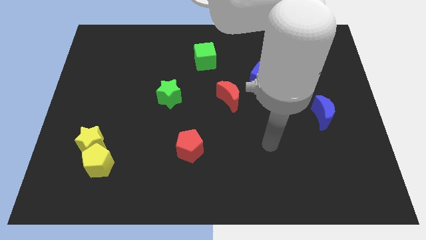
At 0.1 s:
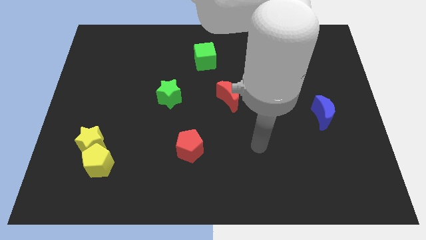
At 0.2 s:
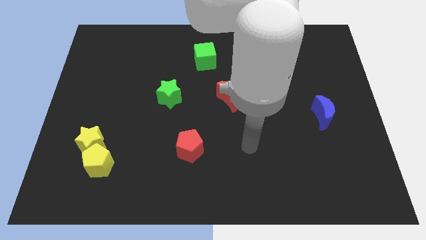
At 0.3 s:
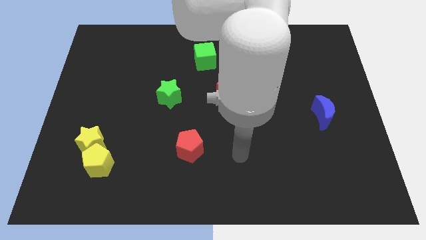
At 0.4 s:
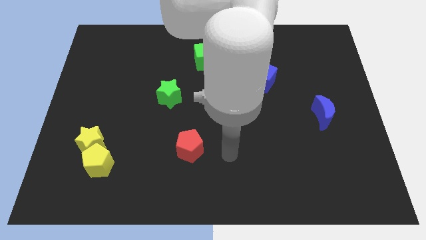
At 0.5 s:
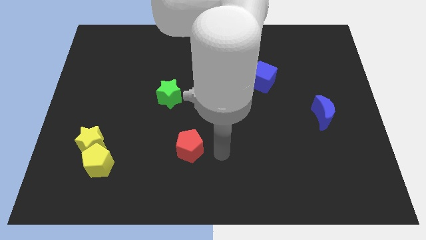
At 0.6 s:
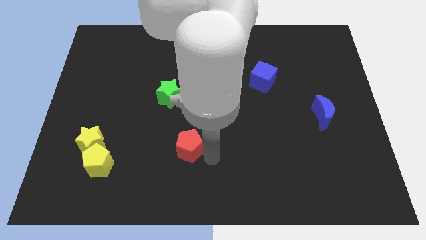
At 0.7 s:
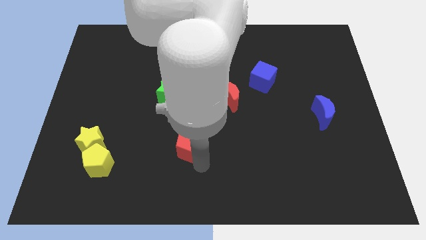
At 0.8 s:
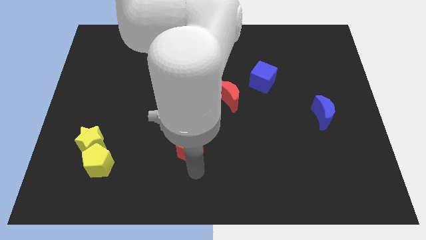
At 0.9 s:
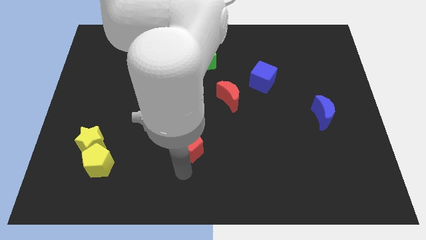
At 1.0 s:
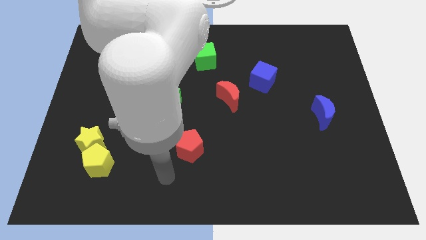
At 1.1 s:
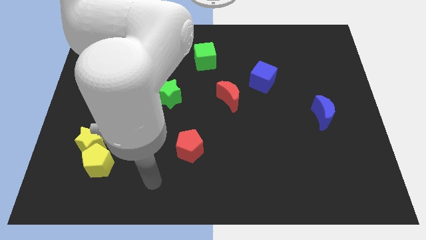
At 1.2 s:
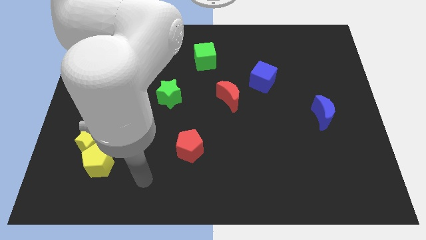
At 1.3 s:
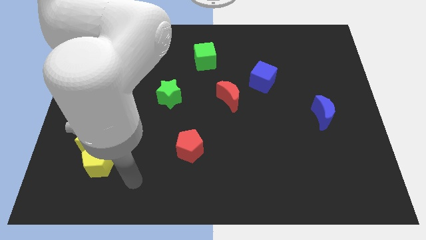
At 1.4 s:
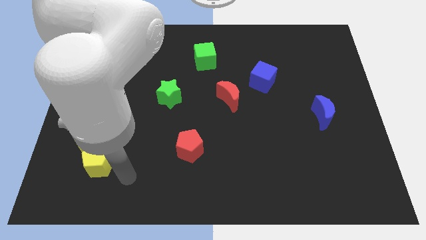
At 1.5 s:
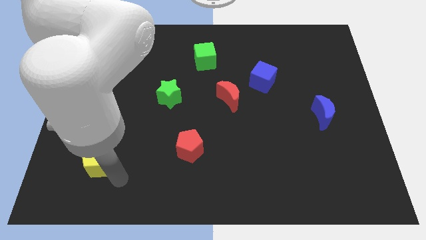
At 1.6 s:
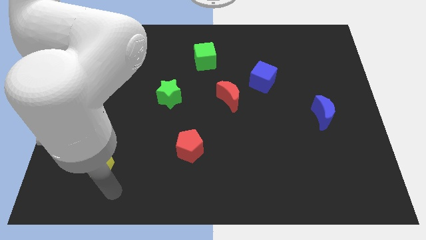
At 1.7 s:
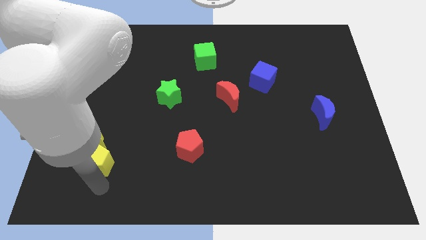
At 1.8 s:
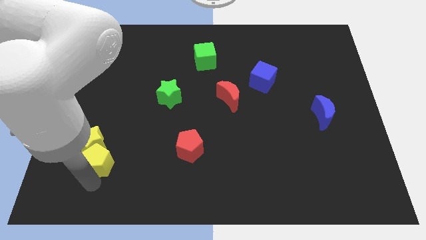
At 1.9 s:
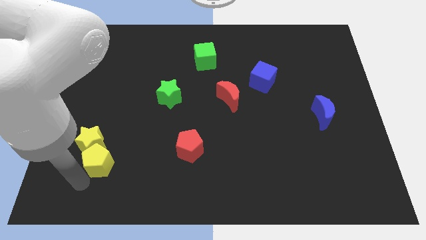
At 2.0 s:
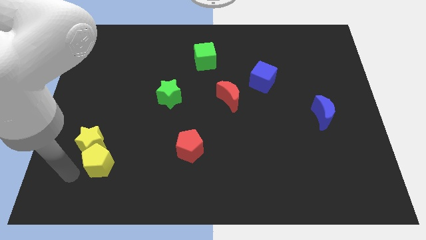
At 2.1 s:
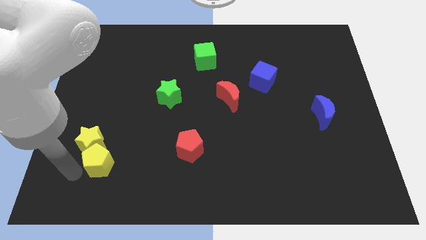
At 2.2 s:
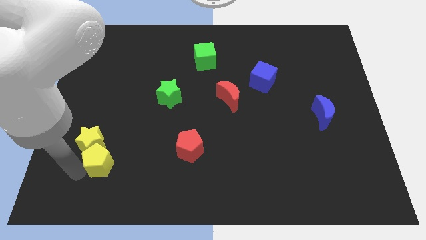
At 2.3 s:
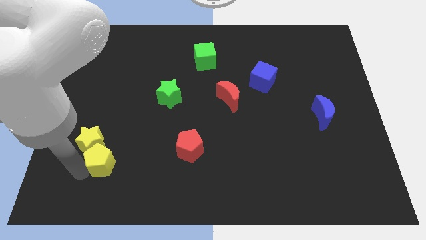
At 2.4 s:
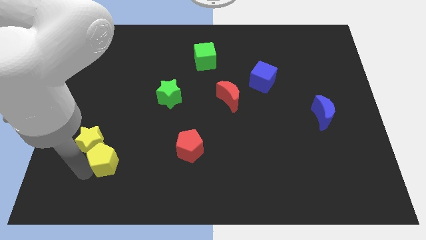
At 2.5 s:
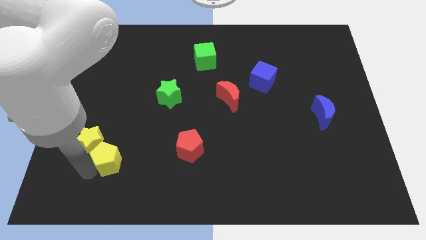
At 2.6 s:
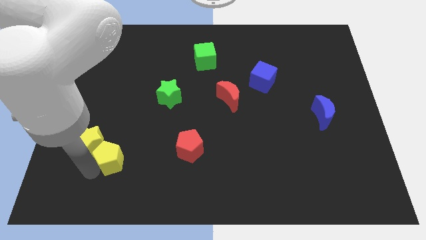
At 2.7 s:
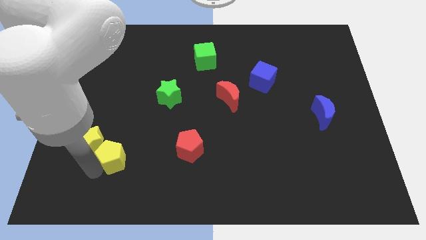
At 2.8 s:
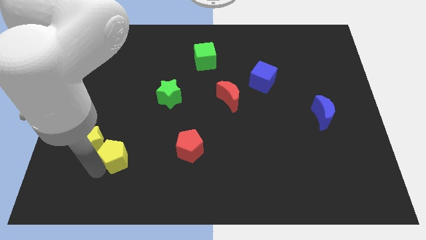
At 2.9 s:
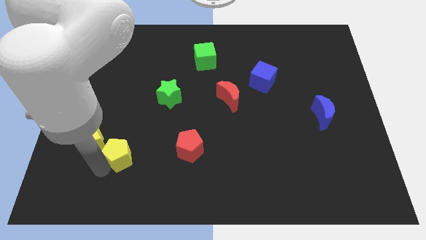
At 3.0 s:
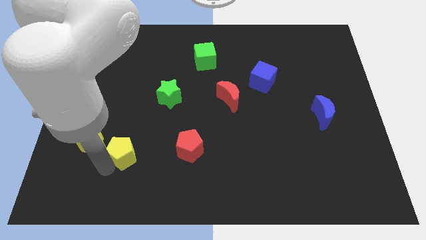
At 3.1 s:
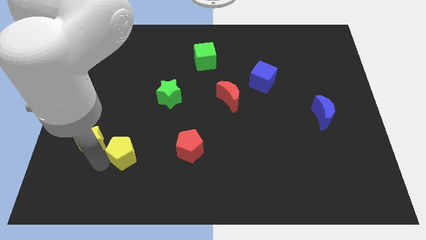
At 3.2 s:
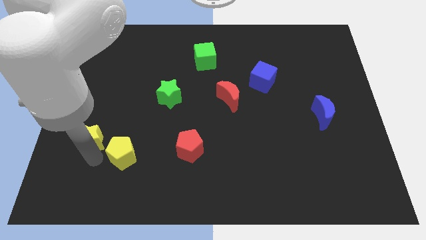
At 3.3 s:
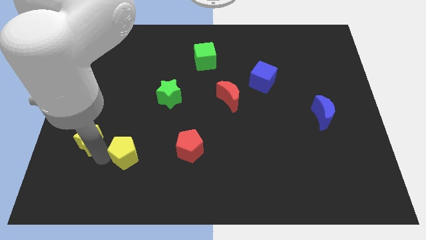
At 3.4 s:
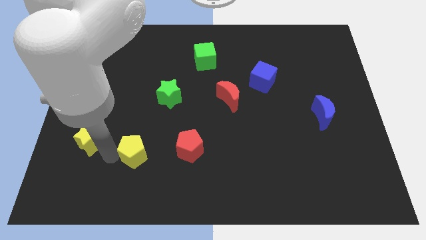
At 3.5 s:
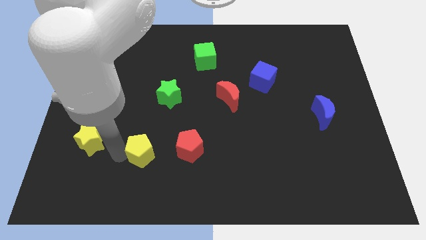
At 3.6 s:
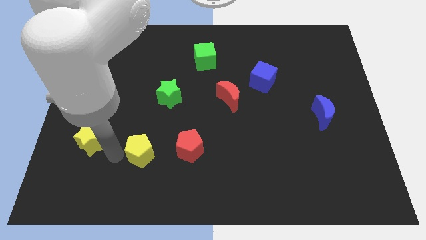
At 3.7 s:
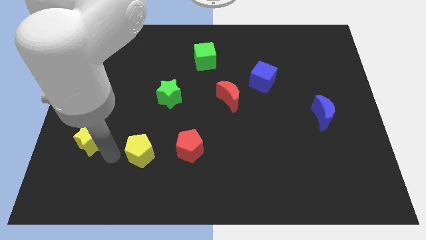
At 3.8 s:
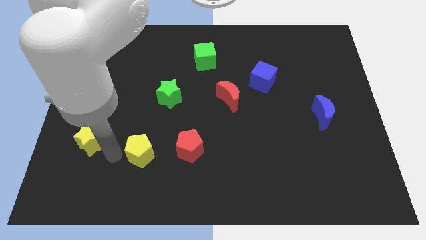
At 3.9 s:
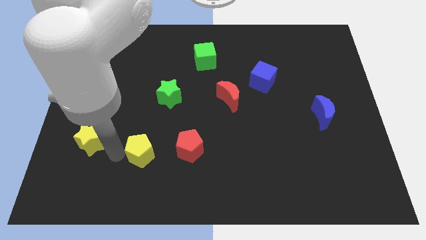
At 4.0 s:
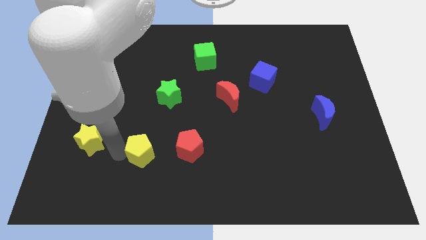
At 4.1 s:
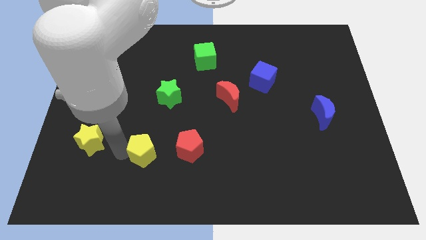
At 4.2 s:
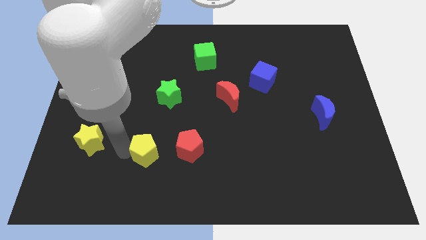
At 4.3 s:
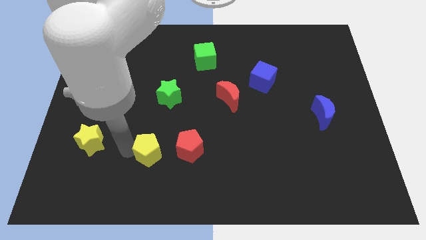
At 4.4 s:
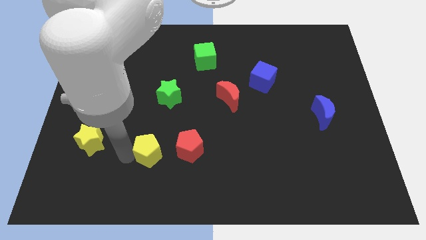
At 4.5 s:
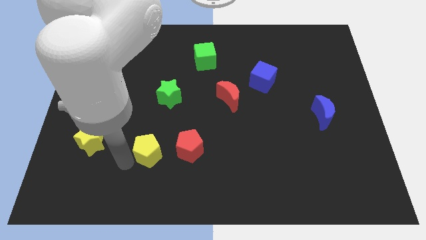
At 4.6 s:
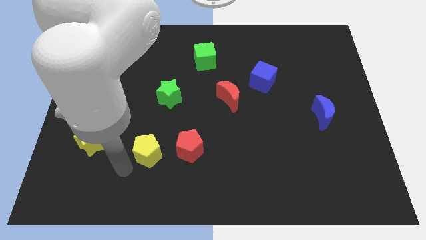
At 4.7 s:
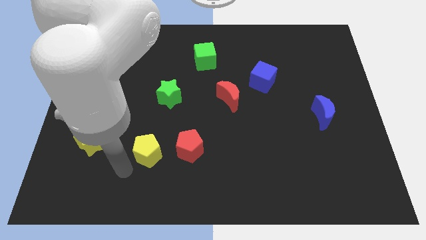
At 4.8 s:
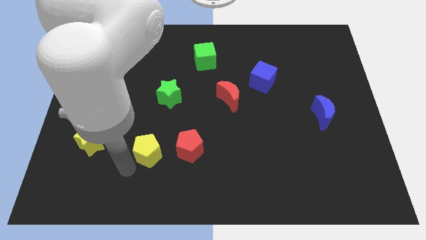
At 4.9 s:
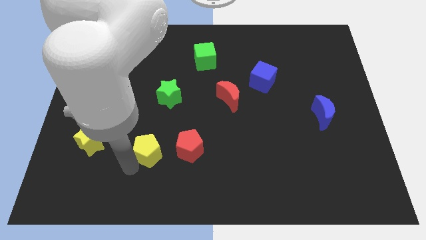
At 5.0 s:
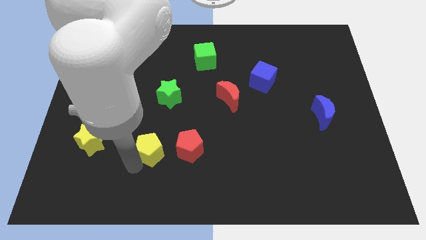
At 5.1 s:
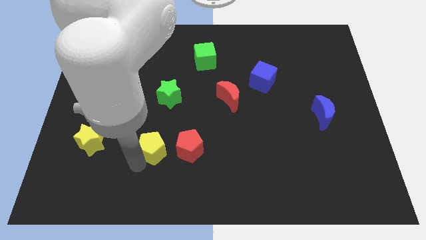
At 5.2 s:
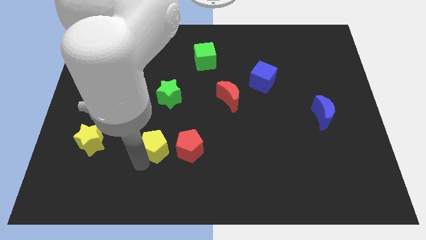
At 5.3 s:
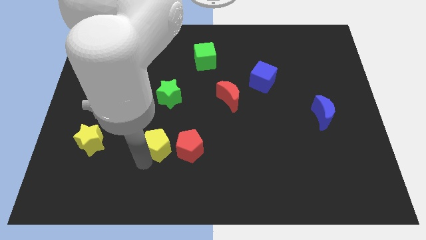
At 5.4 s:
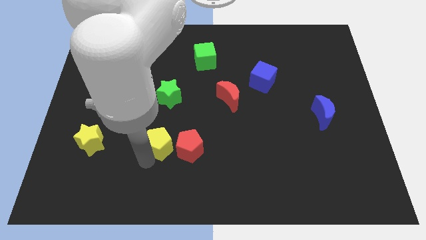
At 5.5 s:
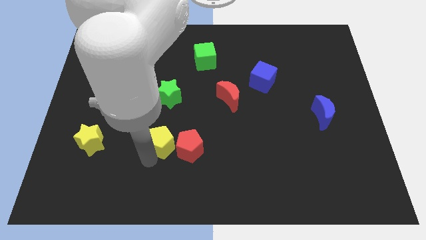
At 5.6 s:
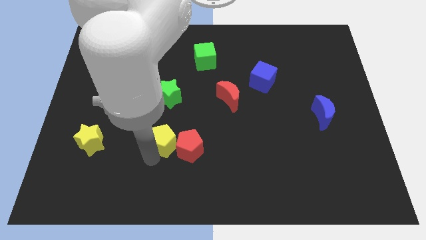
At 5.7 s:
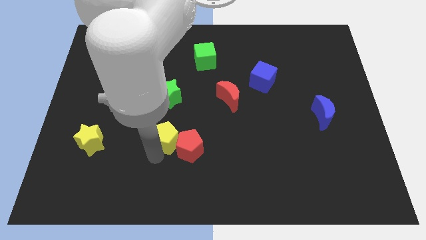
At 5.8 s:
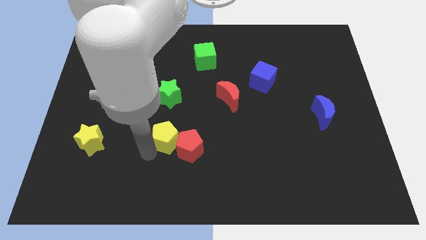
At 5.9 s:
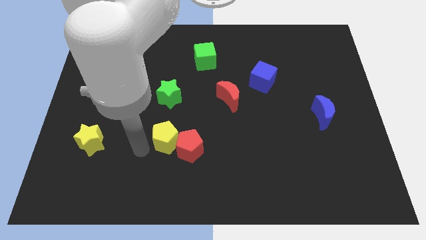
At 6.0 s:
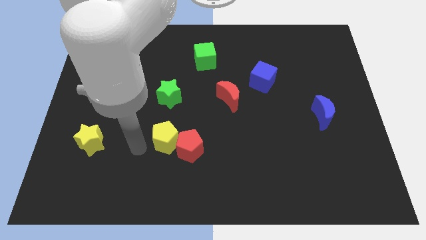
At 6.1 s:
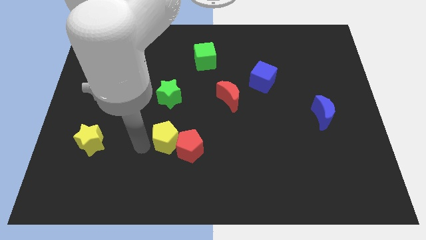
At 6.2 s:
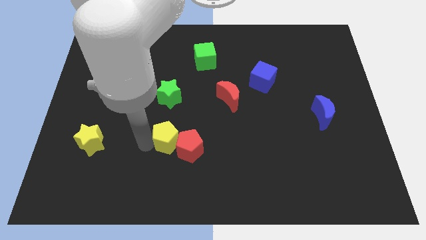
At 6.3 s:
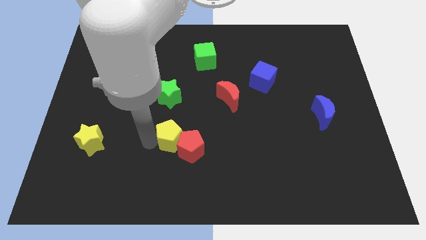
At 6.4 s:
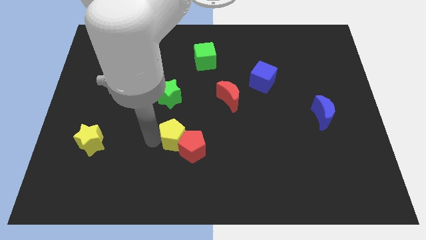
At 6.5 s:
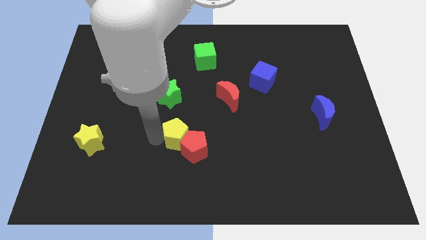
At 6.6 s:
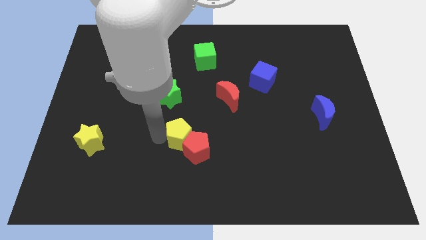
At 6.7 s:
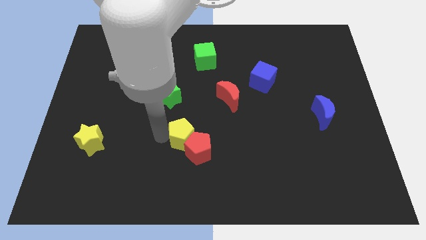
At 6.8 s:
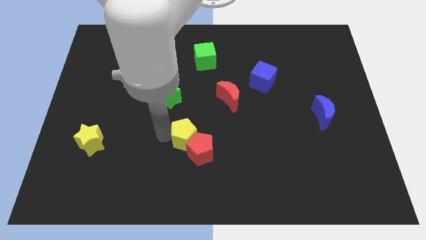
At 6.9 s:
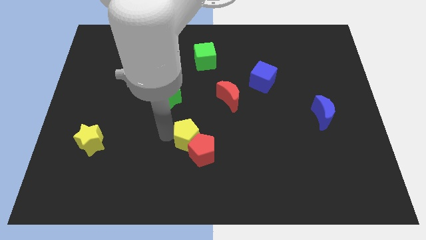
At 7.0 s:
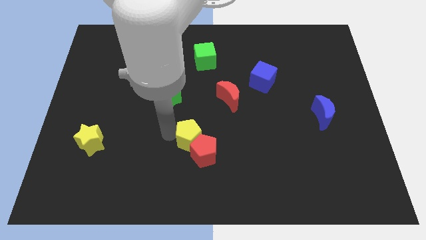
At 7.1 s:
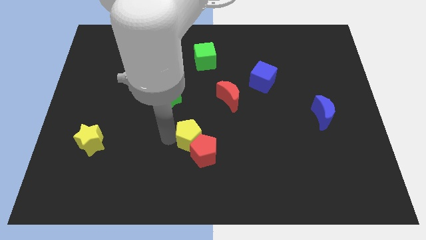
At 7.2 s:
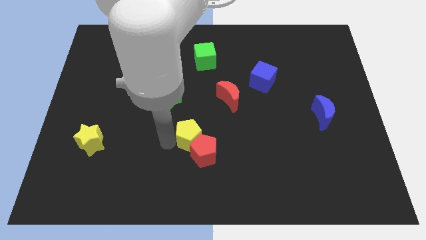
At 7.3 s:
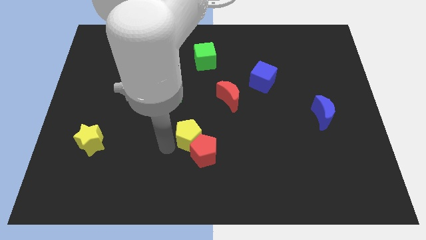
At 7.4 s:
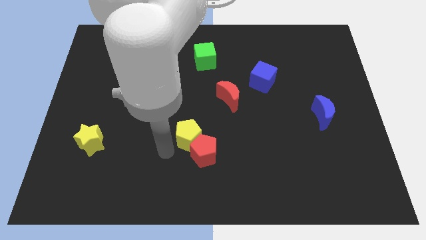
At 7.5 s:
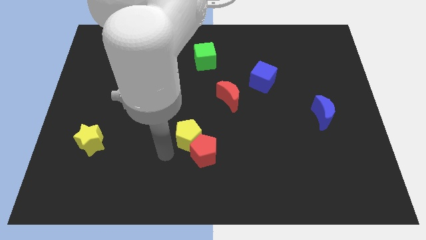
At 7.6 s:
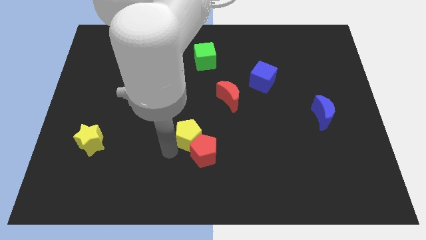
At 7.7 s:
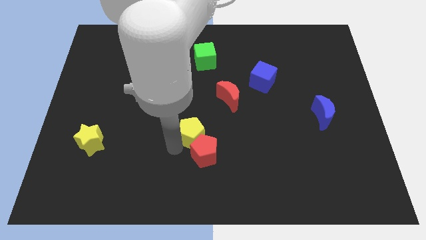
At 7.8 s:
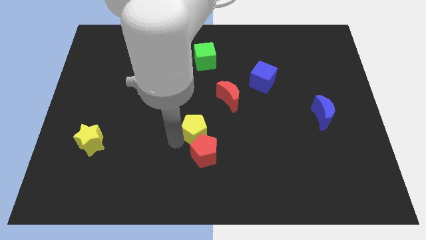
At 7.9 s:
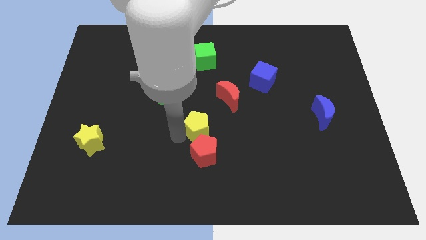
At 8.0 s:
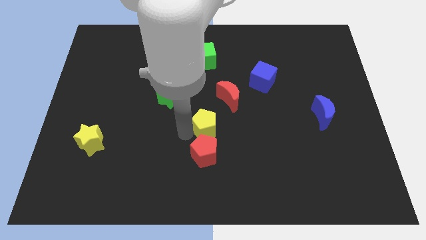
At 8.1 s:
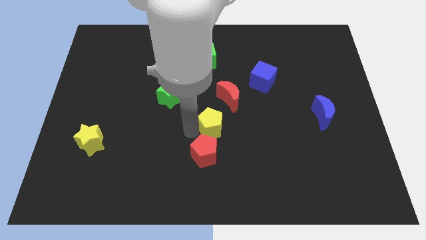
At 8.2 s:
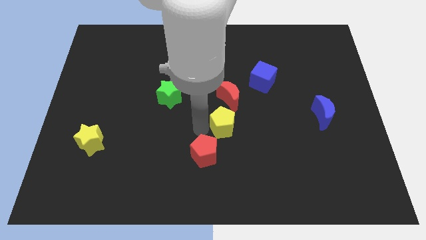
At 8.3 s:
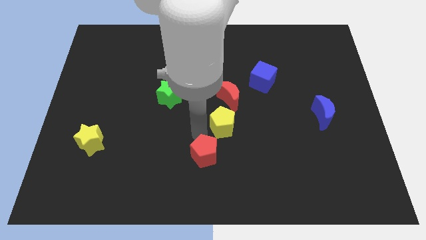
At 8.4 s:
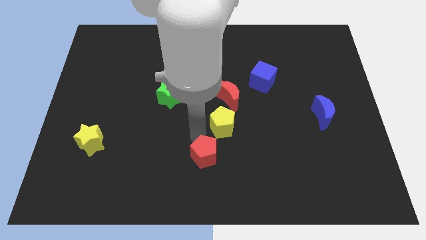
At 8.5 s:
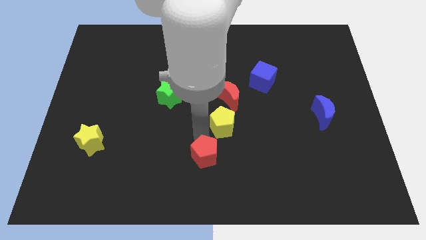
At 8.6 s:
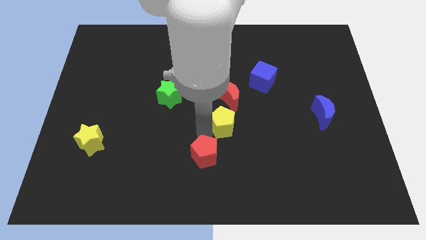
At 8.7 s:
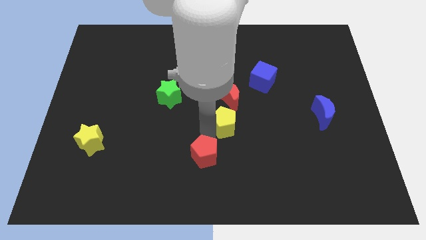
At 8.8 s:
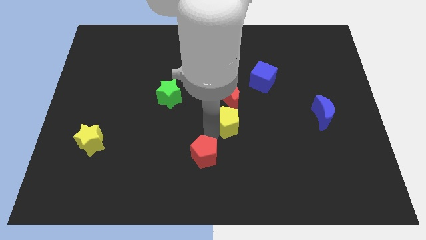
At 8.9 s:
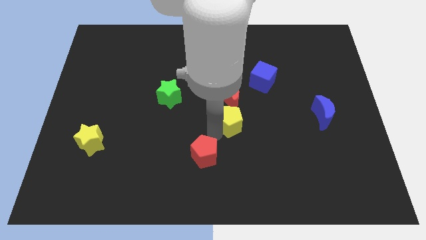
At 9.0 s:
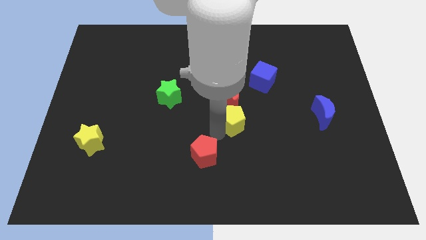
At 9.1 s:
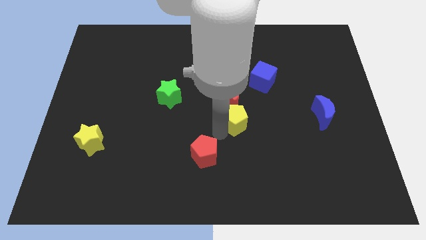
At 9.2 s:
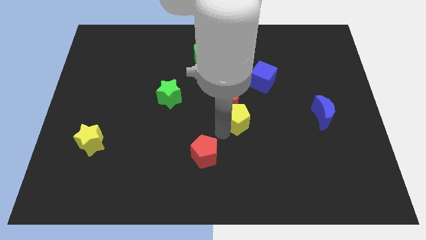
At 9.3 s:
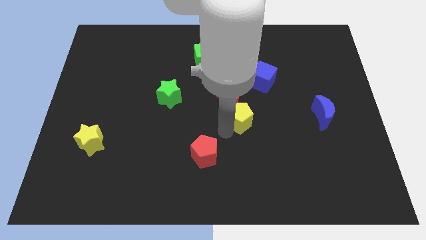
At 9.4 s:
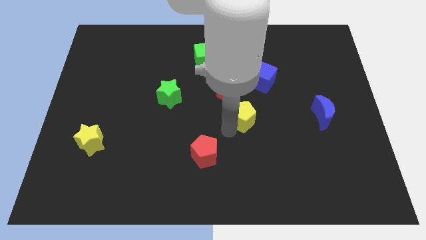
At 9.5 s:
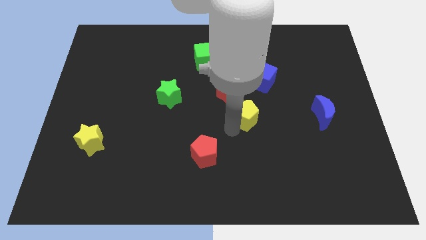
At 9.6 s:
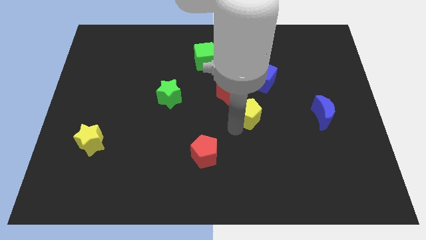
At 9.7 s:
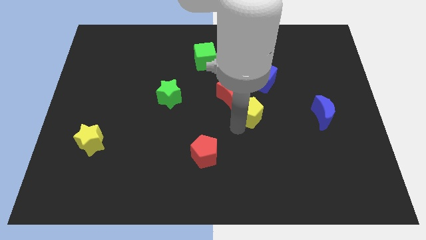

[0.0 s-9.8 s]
move the yellow pentagon just right of the red moon
